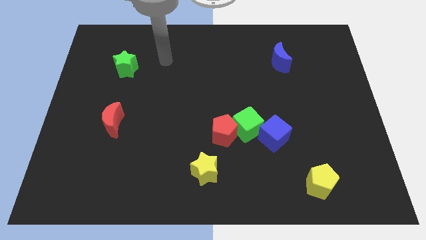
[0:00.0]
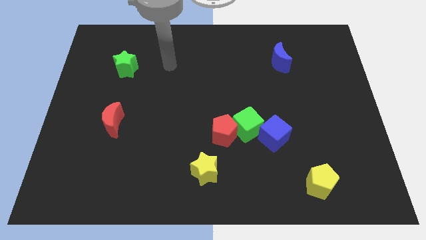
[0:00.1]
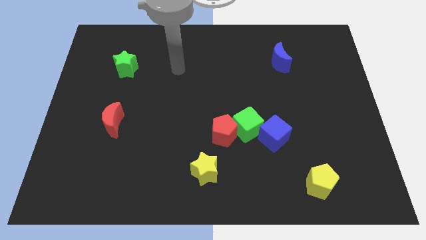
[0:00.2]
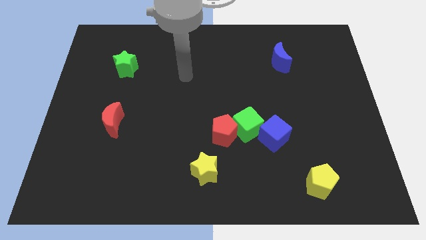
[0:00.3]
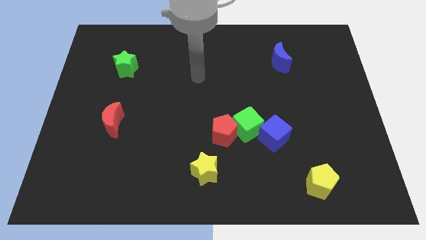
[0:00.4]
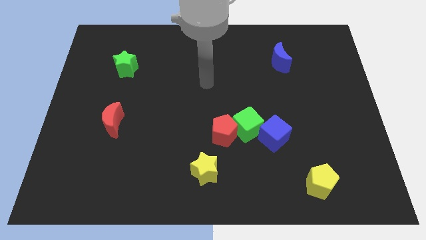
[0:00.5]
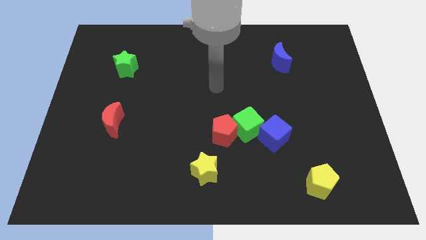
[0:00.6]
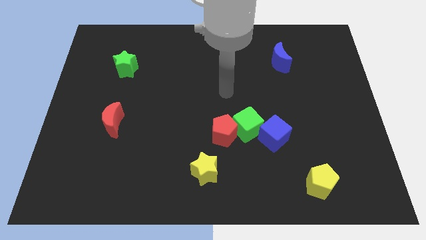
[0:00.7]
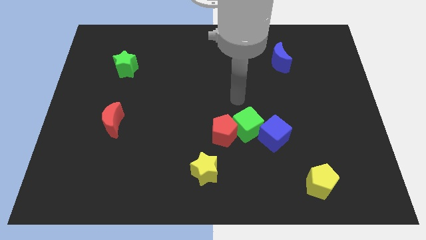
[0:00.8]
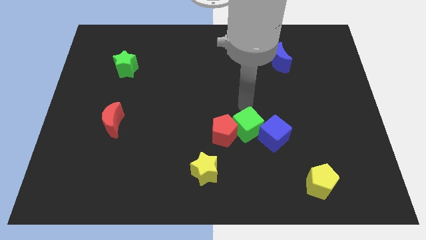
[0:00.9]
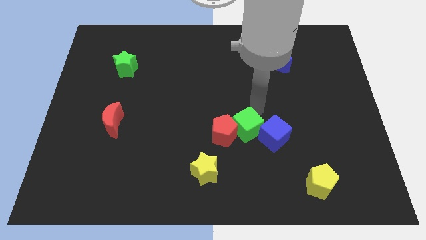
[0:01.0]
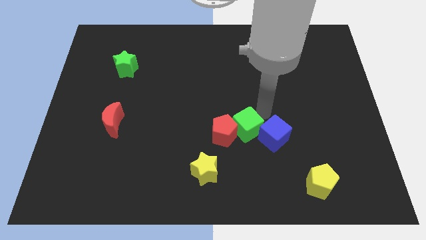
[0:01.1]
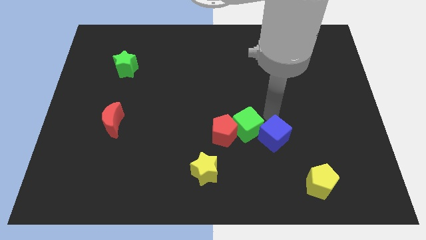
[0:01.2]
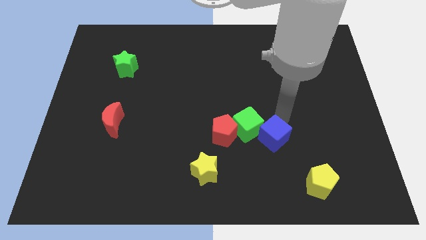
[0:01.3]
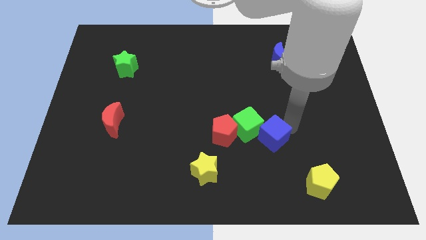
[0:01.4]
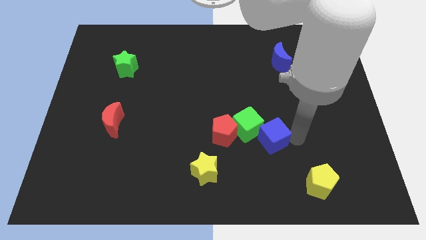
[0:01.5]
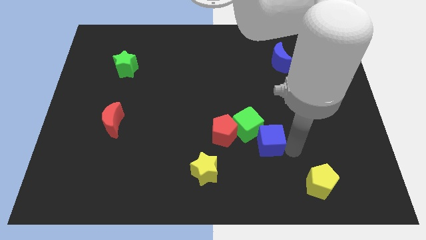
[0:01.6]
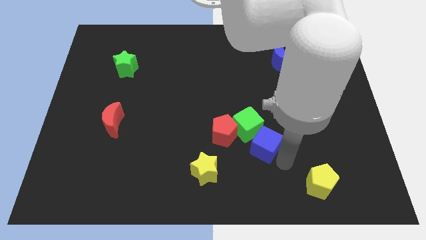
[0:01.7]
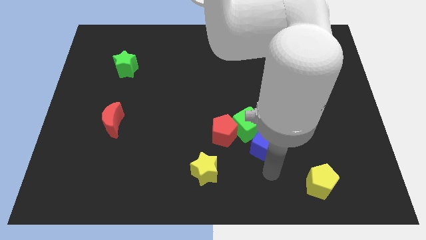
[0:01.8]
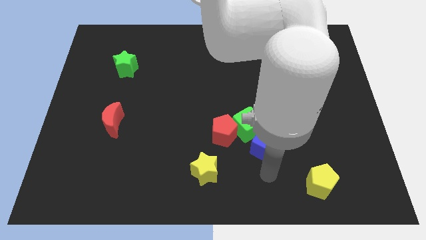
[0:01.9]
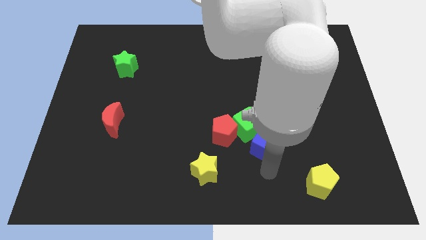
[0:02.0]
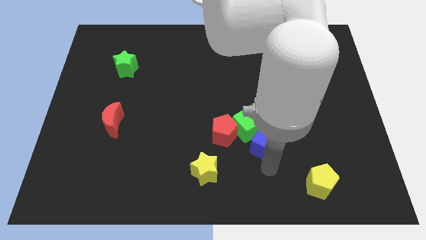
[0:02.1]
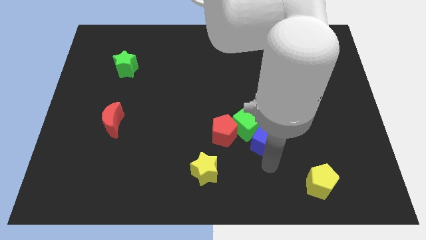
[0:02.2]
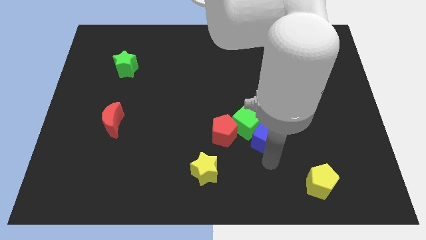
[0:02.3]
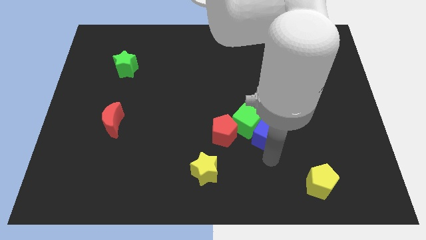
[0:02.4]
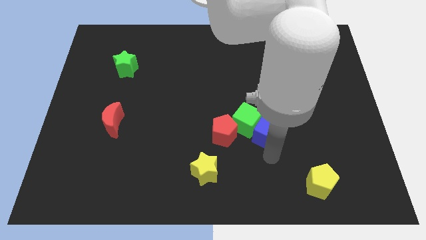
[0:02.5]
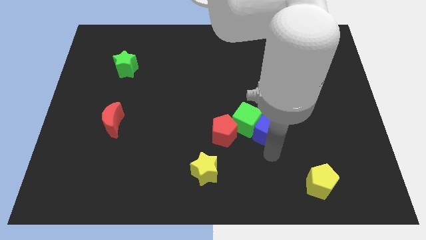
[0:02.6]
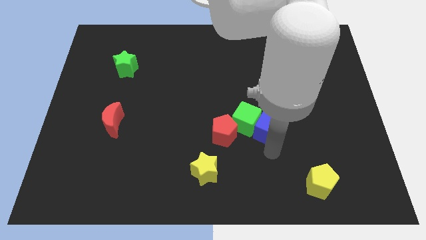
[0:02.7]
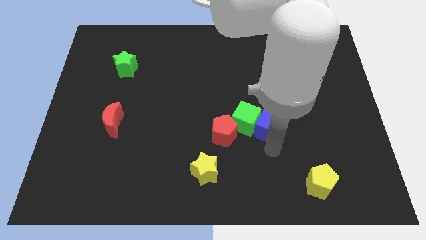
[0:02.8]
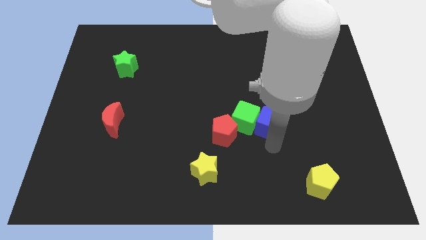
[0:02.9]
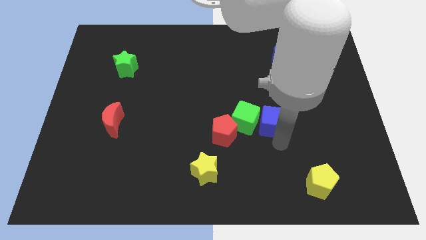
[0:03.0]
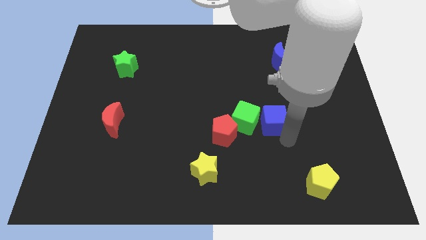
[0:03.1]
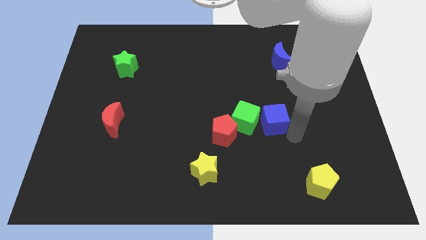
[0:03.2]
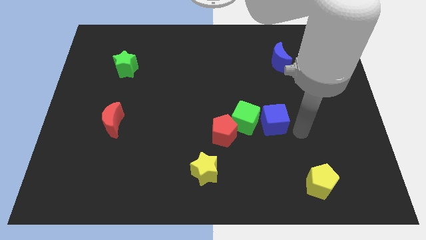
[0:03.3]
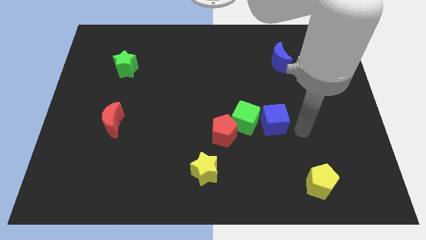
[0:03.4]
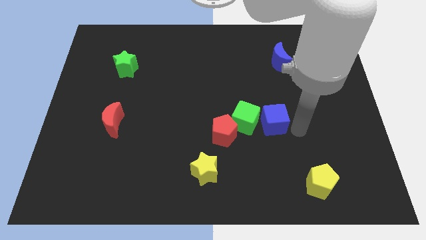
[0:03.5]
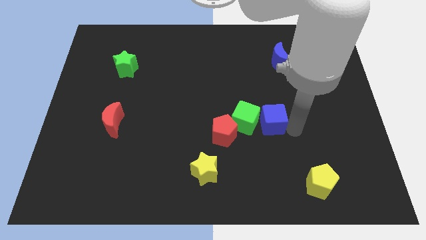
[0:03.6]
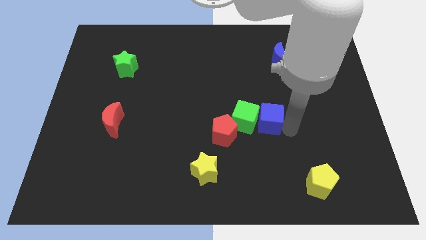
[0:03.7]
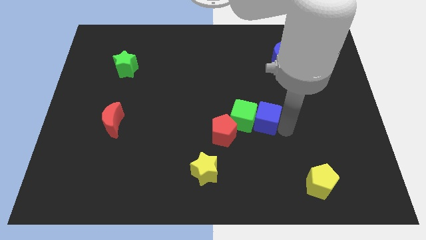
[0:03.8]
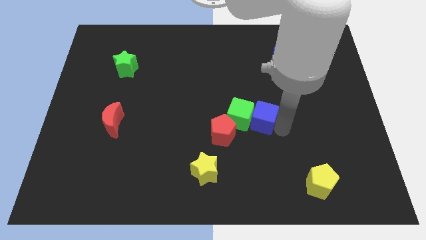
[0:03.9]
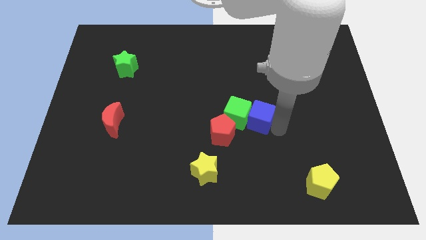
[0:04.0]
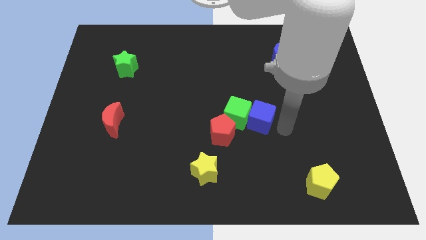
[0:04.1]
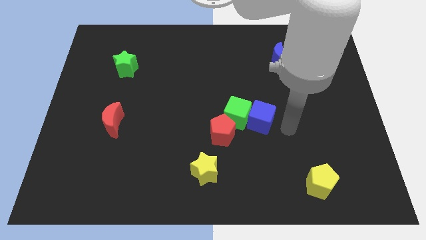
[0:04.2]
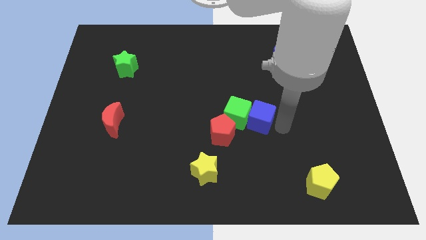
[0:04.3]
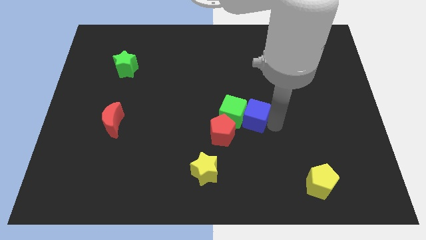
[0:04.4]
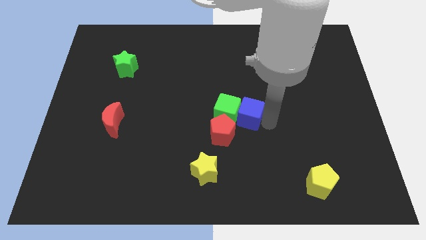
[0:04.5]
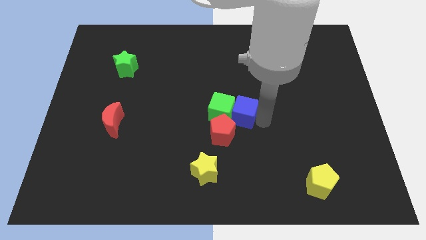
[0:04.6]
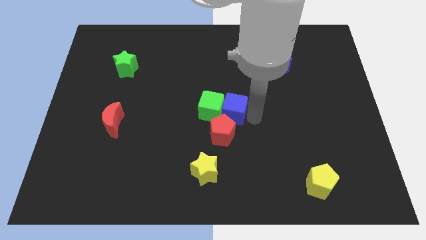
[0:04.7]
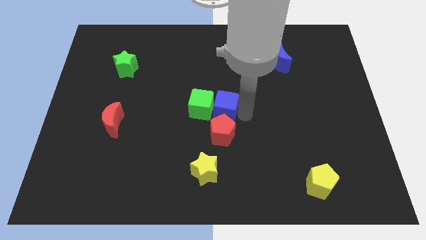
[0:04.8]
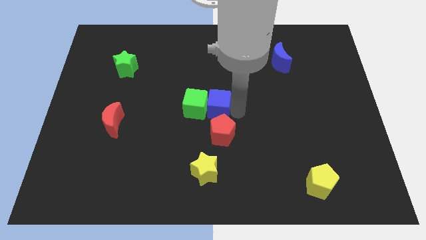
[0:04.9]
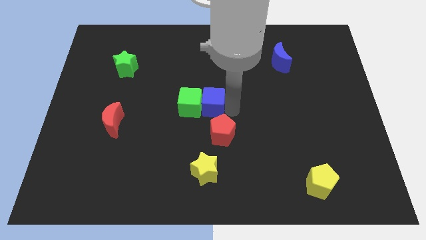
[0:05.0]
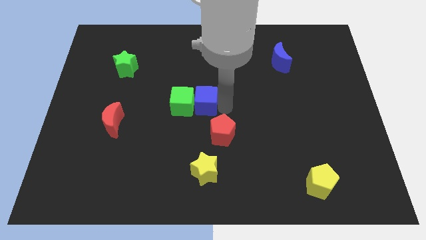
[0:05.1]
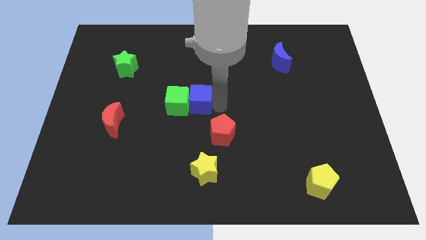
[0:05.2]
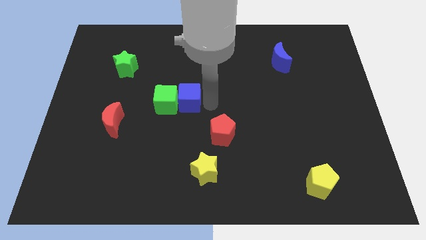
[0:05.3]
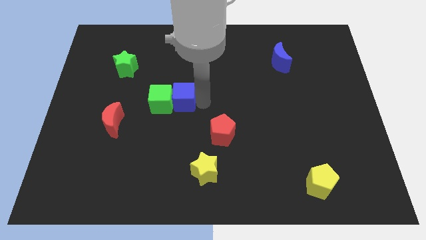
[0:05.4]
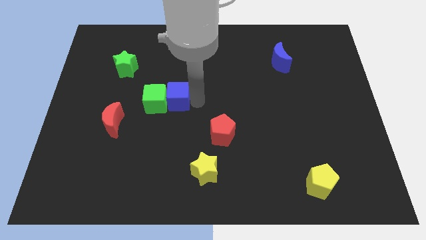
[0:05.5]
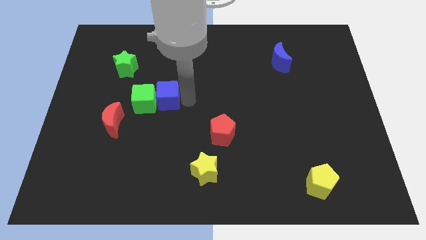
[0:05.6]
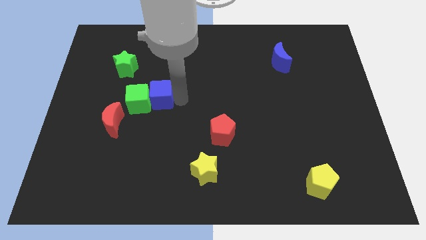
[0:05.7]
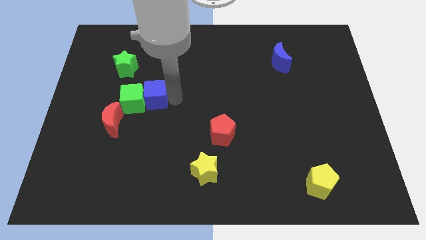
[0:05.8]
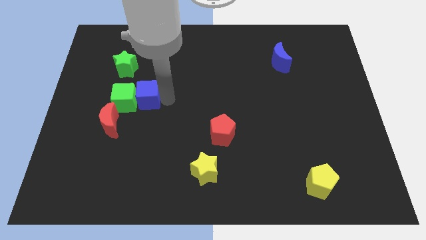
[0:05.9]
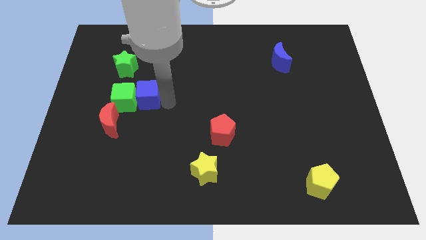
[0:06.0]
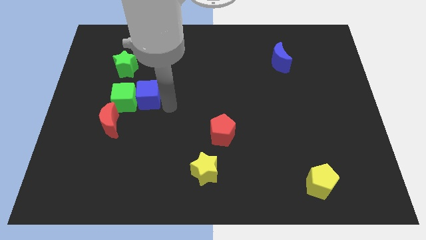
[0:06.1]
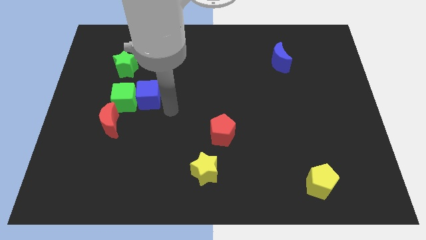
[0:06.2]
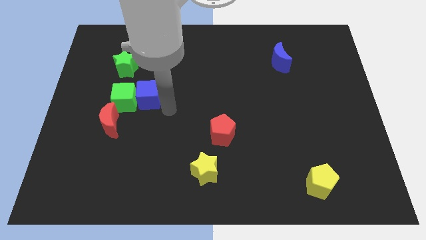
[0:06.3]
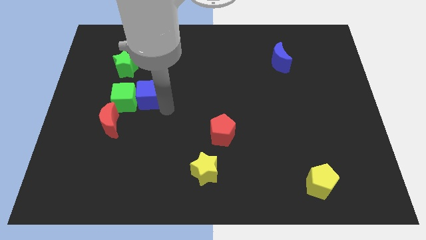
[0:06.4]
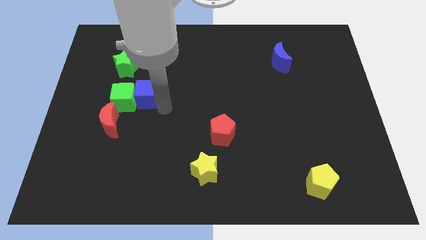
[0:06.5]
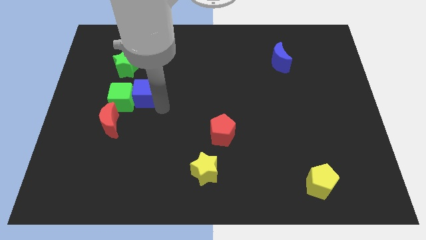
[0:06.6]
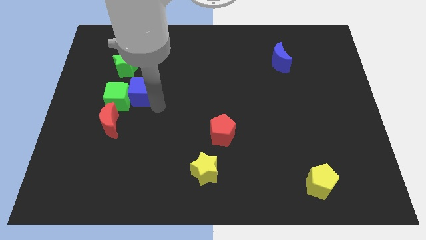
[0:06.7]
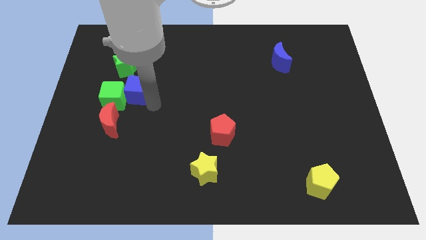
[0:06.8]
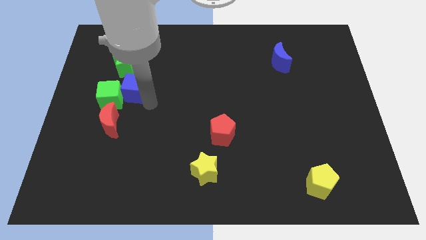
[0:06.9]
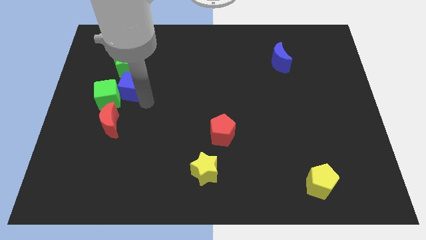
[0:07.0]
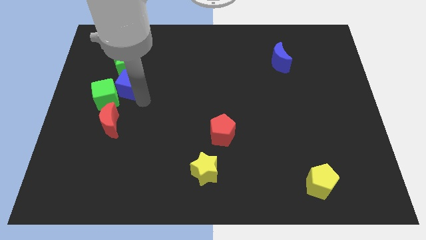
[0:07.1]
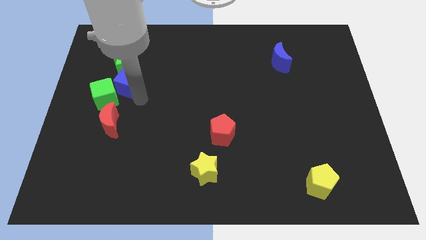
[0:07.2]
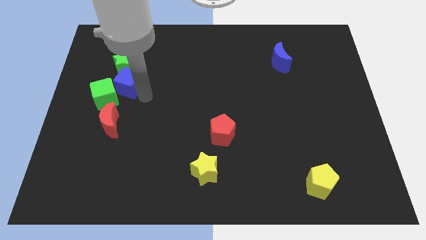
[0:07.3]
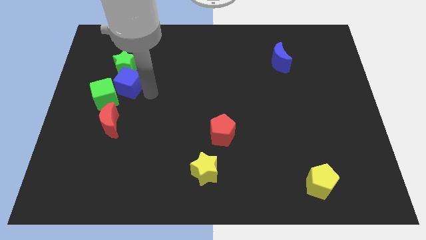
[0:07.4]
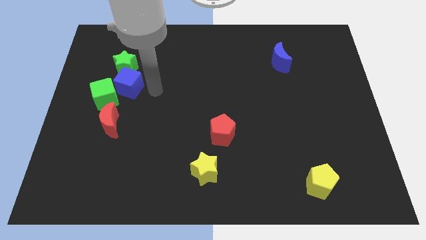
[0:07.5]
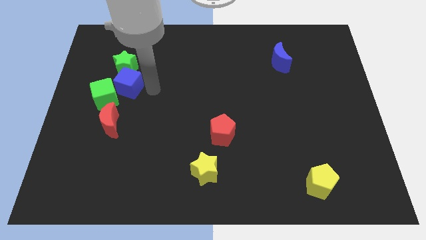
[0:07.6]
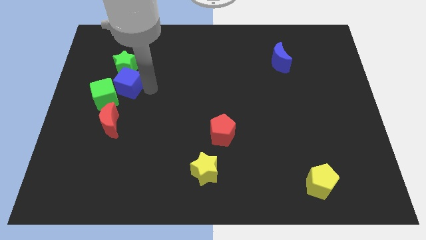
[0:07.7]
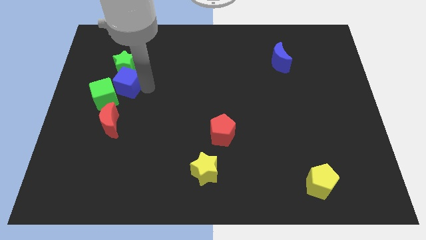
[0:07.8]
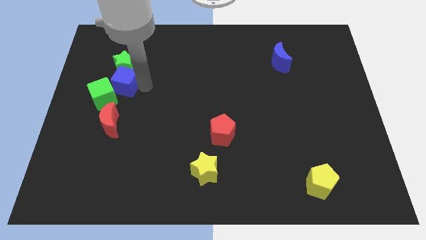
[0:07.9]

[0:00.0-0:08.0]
move the blue cube to the bottom left of the green star
